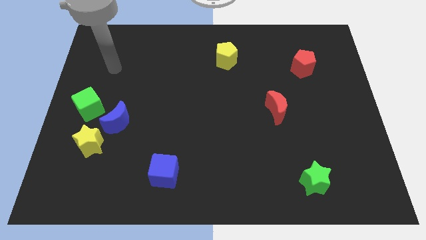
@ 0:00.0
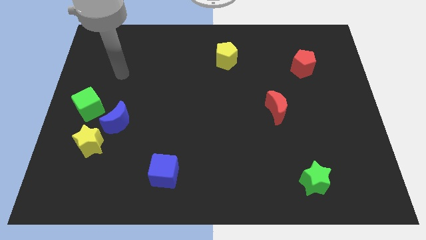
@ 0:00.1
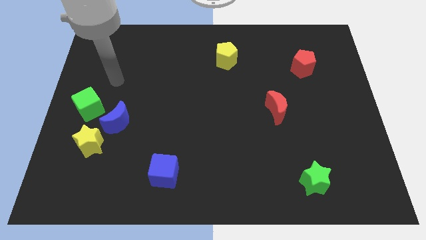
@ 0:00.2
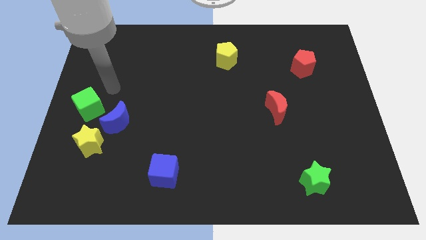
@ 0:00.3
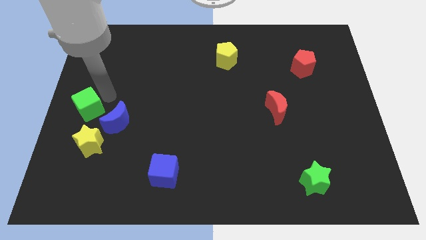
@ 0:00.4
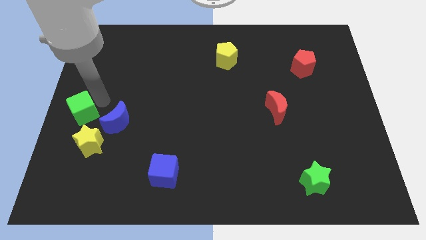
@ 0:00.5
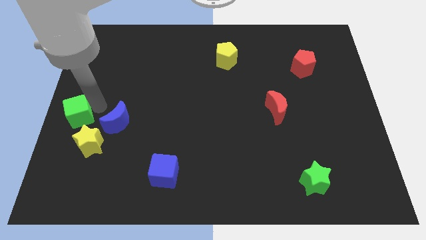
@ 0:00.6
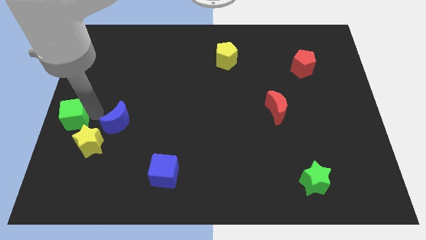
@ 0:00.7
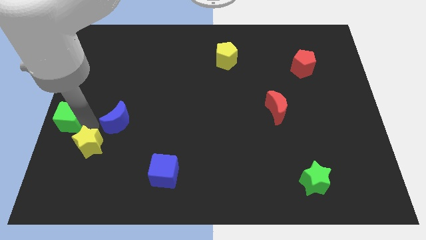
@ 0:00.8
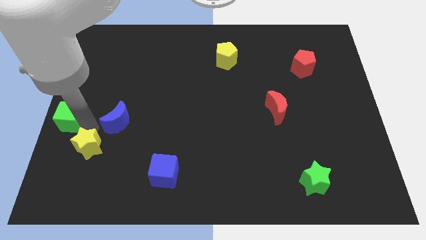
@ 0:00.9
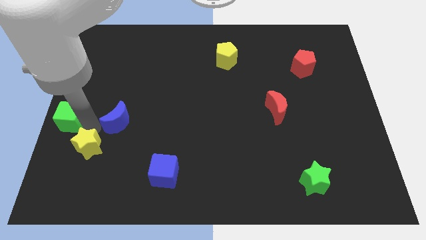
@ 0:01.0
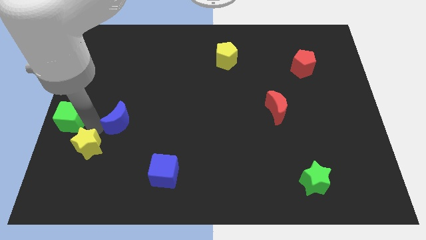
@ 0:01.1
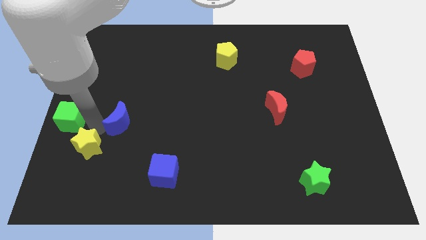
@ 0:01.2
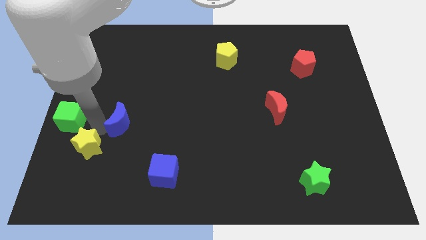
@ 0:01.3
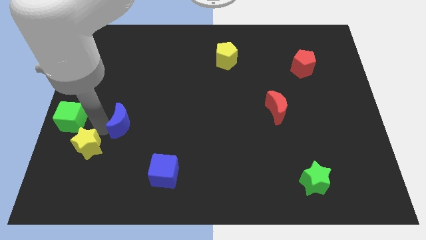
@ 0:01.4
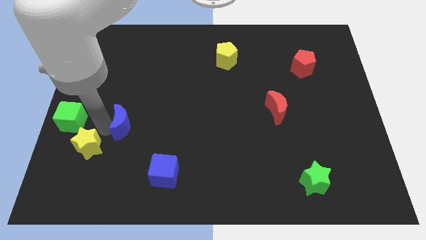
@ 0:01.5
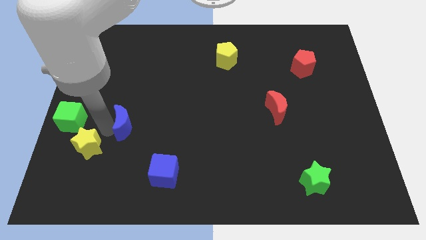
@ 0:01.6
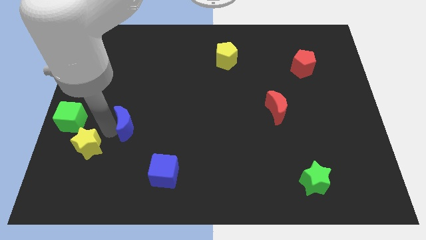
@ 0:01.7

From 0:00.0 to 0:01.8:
move the blue moon away from the yellow star and green cube

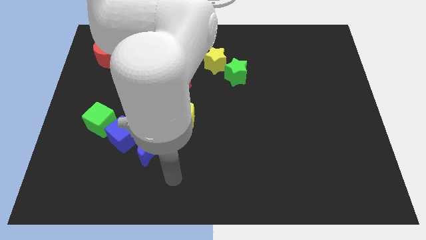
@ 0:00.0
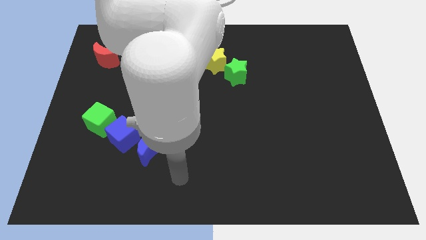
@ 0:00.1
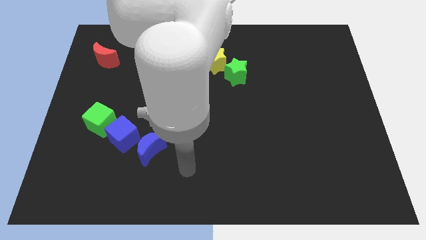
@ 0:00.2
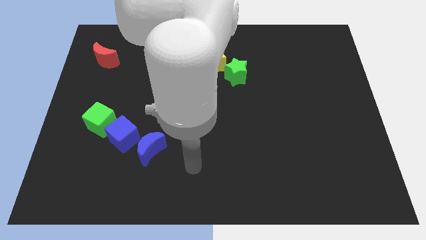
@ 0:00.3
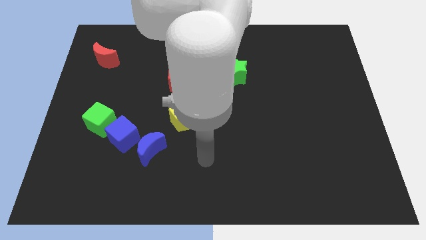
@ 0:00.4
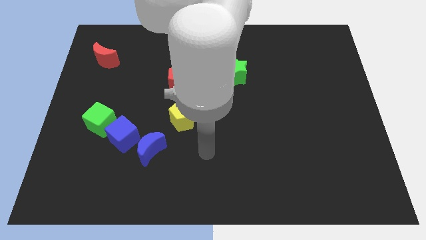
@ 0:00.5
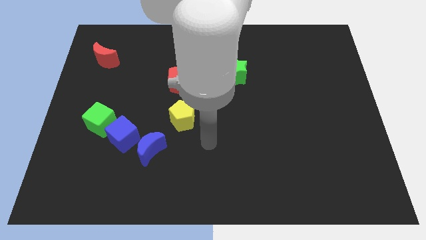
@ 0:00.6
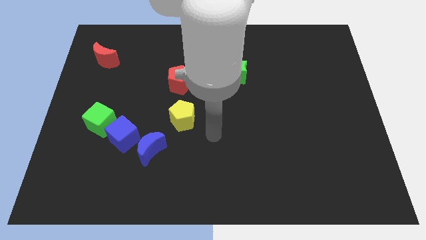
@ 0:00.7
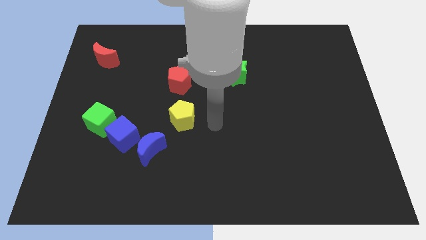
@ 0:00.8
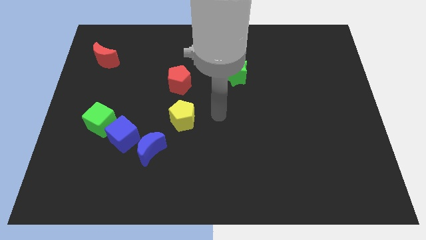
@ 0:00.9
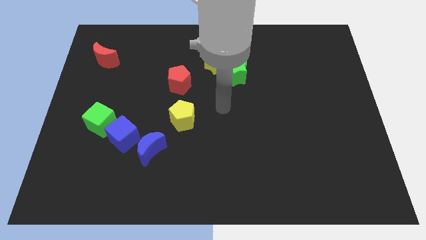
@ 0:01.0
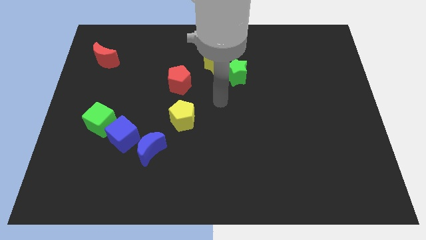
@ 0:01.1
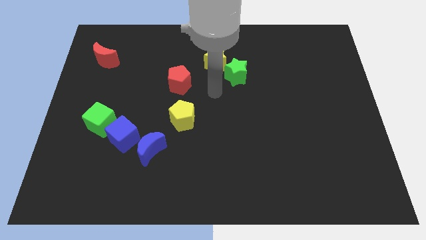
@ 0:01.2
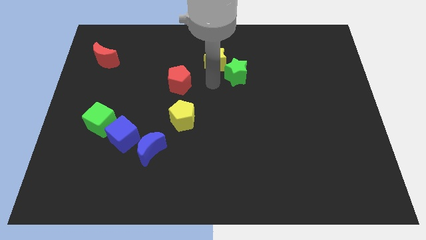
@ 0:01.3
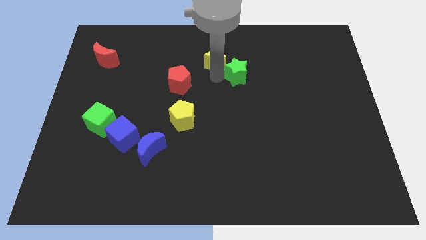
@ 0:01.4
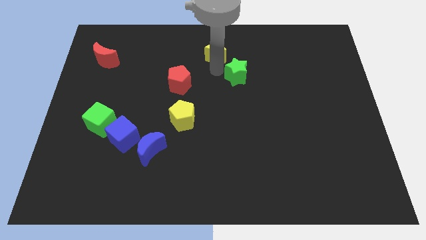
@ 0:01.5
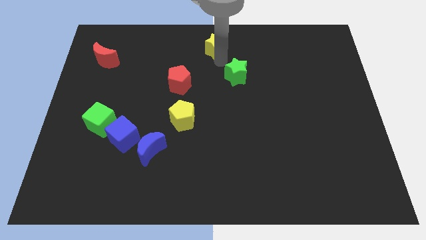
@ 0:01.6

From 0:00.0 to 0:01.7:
move the green star away from the yellow star

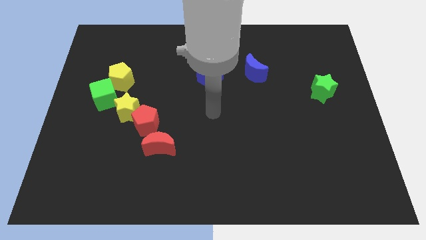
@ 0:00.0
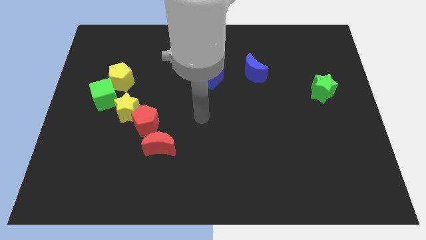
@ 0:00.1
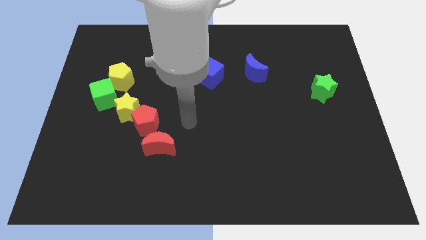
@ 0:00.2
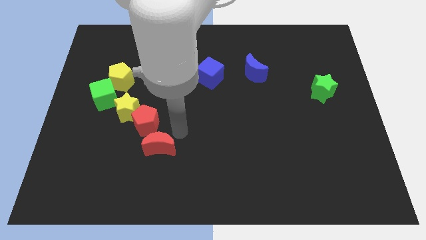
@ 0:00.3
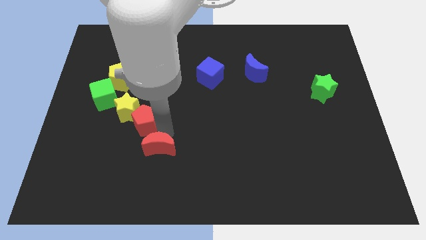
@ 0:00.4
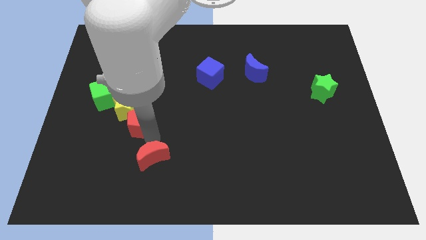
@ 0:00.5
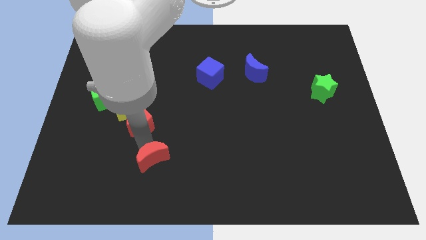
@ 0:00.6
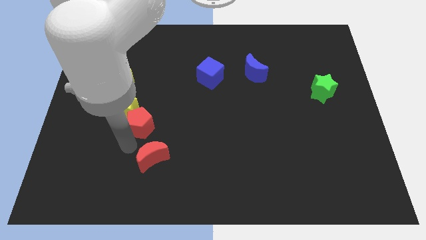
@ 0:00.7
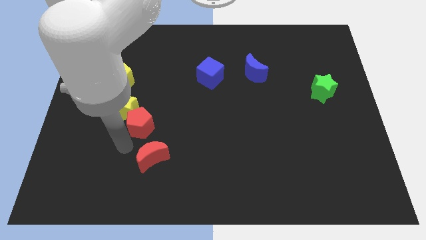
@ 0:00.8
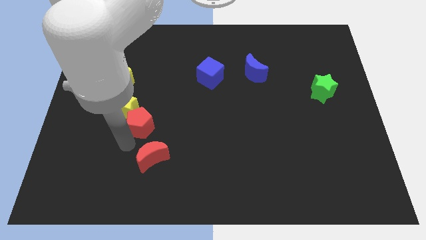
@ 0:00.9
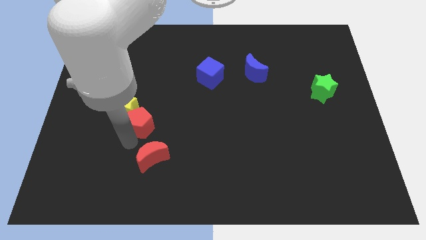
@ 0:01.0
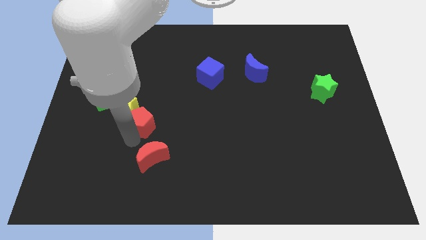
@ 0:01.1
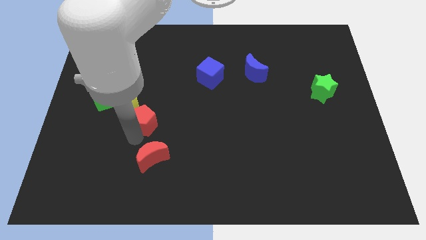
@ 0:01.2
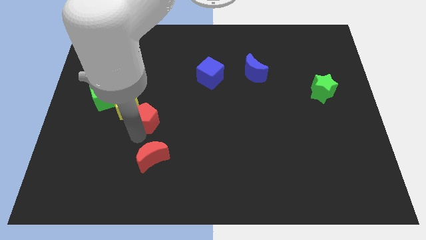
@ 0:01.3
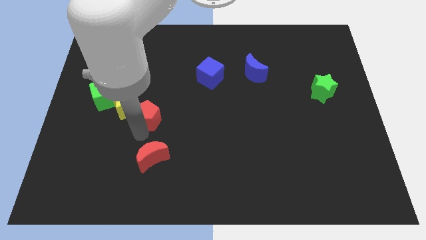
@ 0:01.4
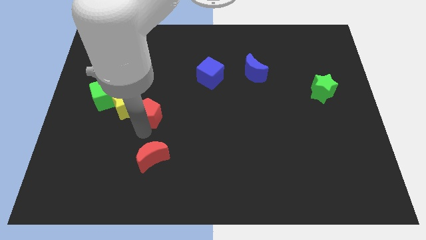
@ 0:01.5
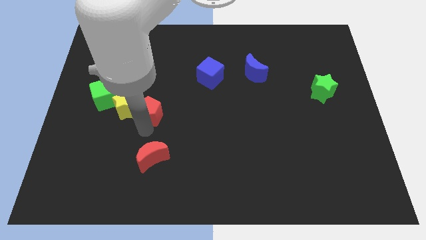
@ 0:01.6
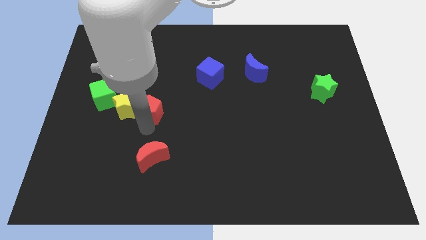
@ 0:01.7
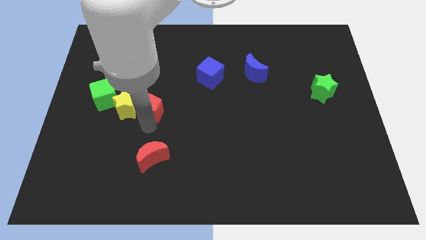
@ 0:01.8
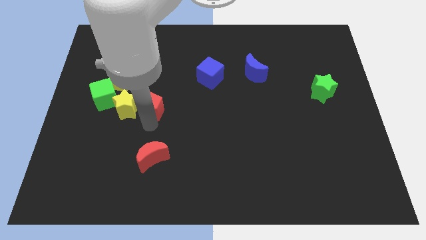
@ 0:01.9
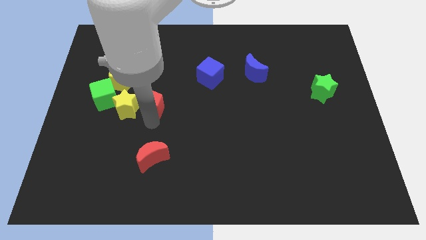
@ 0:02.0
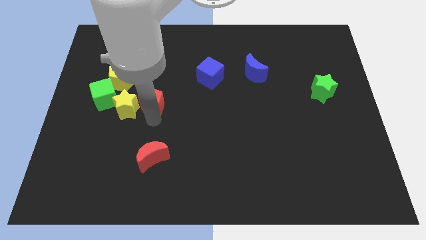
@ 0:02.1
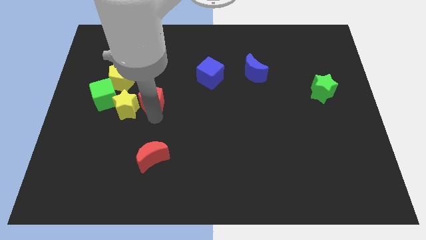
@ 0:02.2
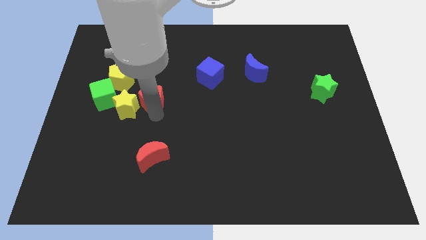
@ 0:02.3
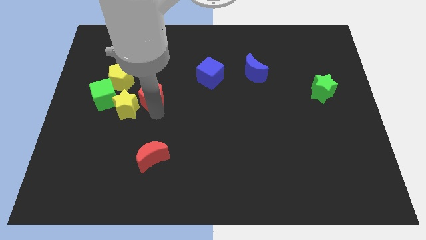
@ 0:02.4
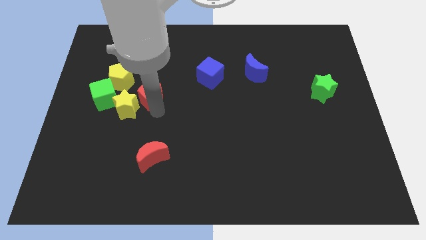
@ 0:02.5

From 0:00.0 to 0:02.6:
pull the red pentagon apart from the yellow star and red moon

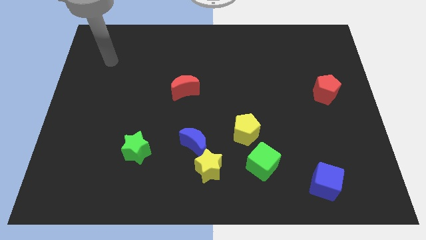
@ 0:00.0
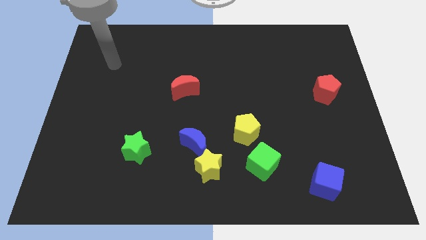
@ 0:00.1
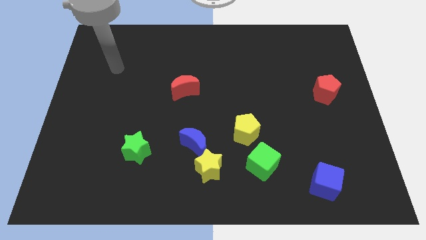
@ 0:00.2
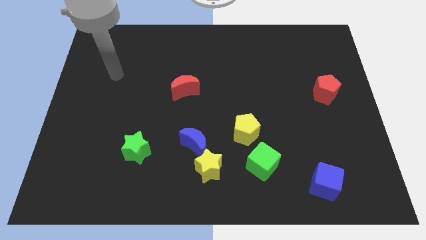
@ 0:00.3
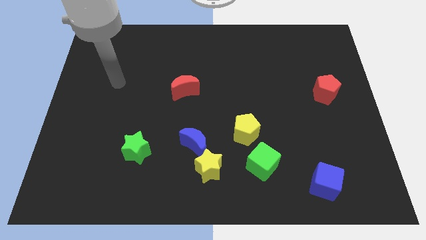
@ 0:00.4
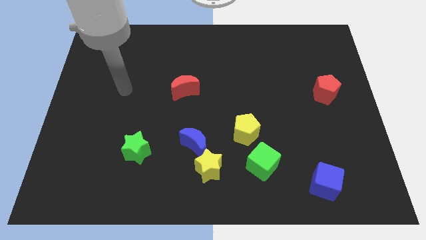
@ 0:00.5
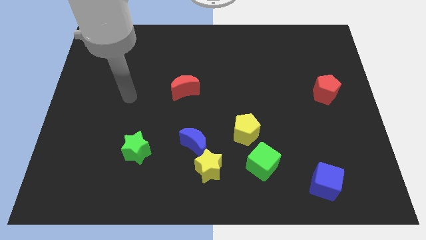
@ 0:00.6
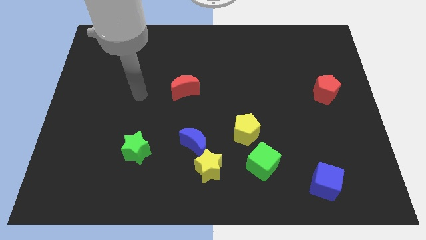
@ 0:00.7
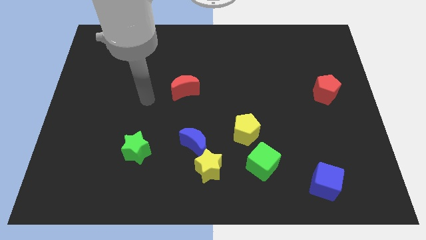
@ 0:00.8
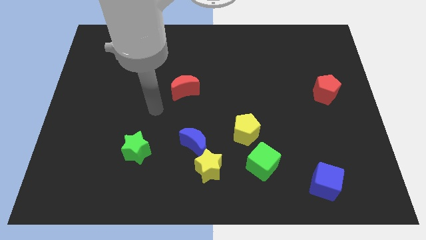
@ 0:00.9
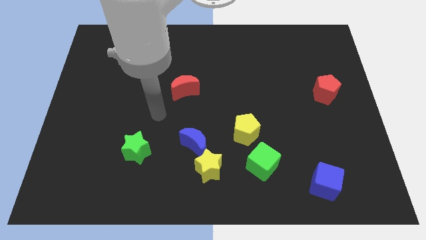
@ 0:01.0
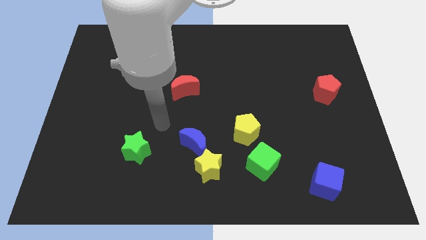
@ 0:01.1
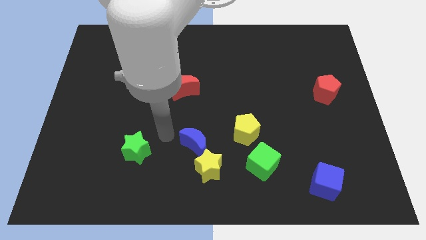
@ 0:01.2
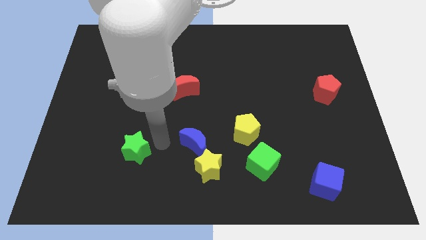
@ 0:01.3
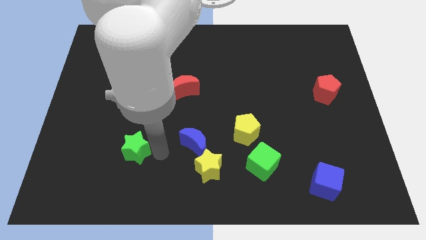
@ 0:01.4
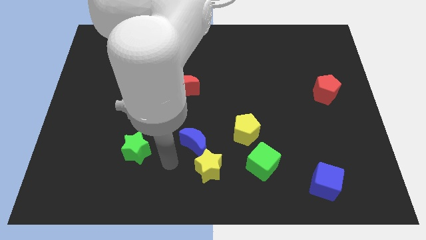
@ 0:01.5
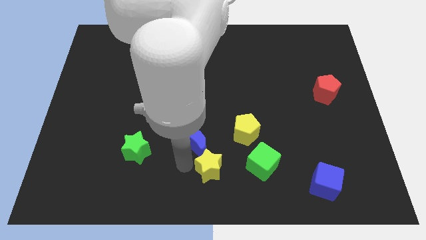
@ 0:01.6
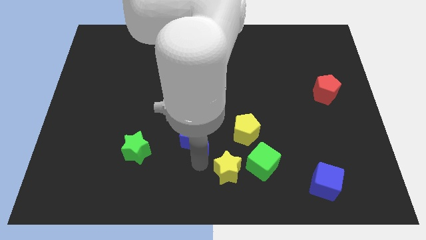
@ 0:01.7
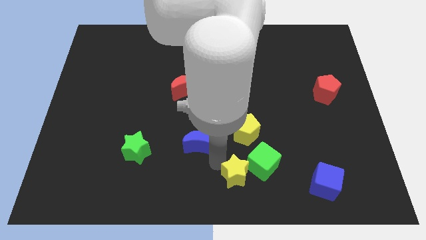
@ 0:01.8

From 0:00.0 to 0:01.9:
move the blue moon away from the yellow star

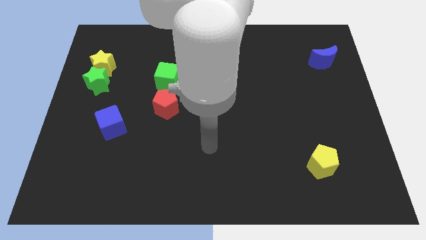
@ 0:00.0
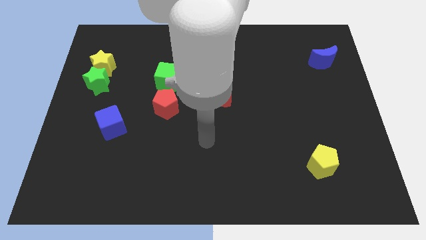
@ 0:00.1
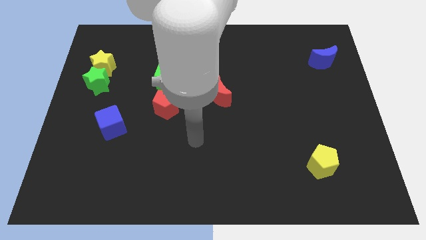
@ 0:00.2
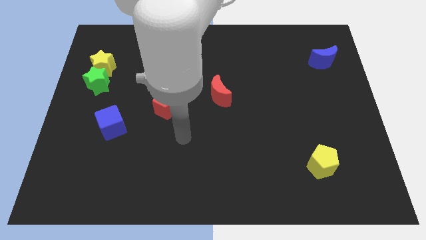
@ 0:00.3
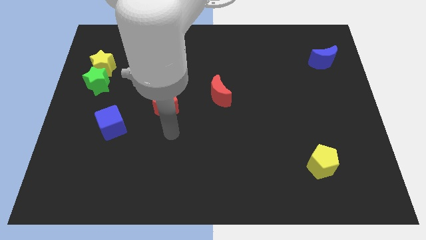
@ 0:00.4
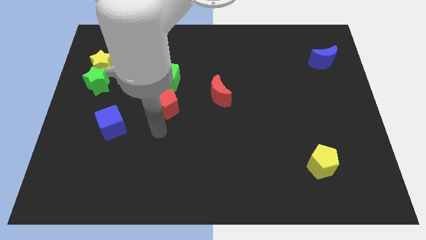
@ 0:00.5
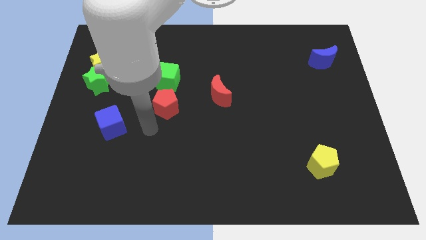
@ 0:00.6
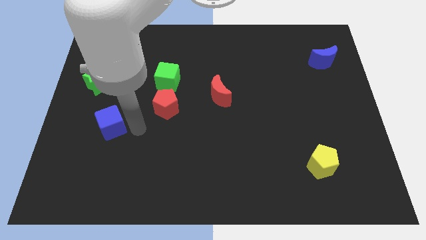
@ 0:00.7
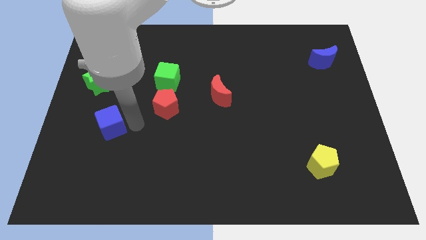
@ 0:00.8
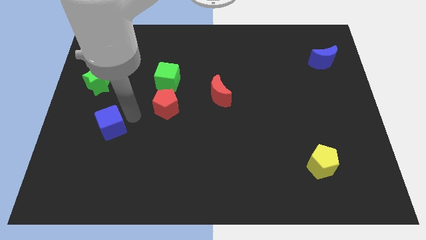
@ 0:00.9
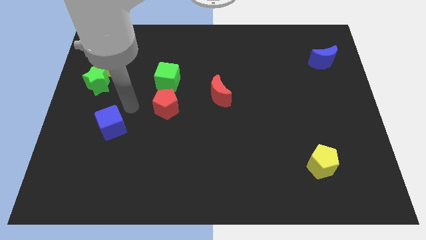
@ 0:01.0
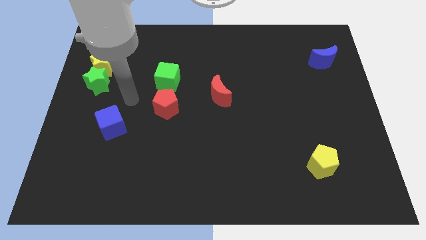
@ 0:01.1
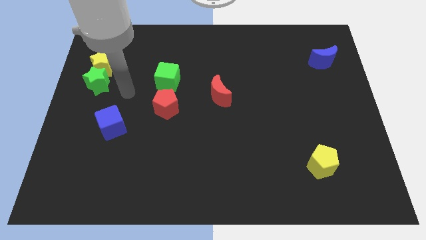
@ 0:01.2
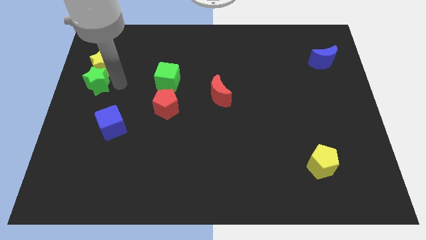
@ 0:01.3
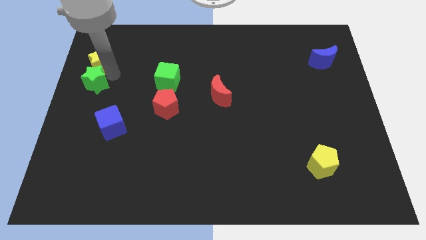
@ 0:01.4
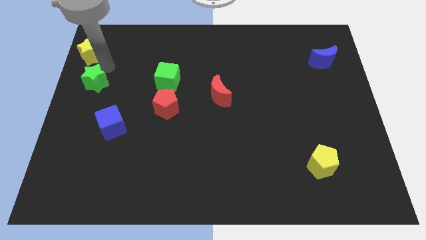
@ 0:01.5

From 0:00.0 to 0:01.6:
separate the green star from the yellow star
